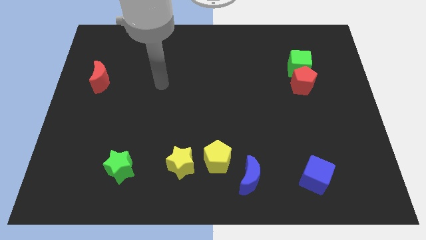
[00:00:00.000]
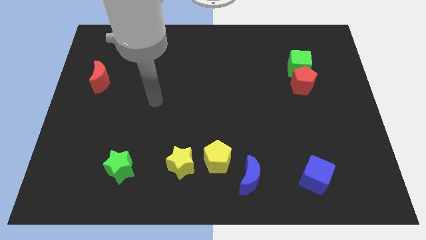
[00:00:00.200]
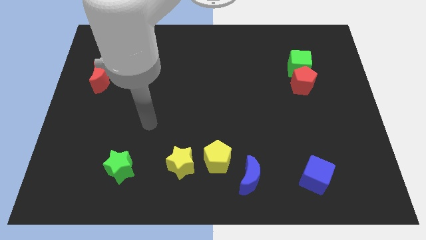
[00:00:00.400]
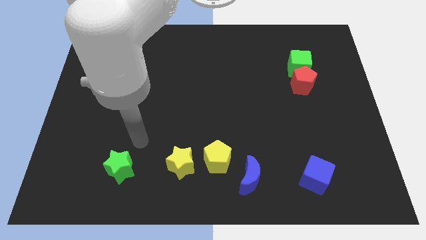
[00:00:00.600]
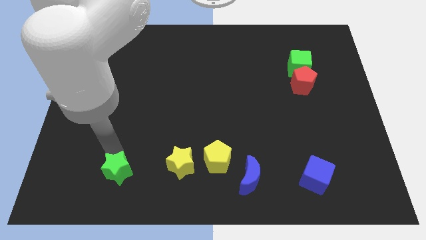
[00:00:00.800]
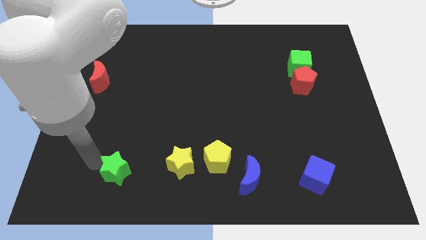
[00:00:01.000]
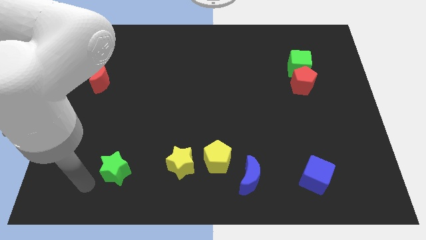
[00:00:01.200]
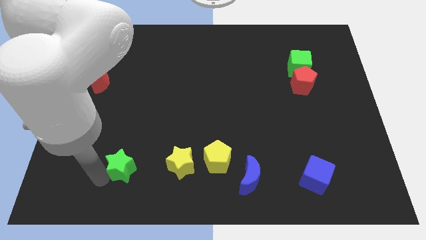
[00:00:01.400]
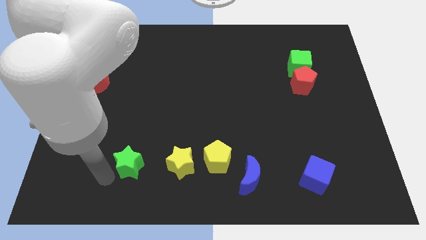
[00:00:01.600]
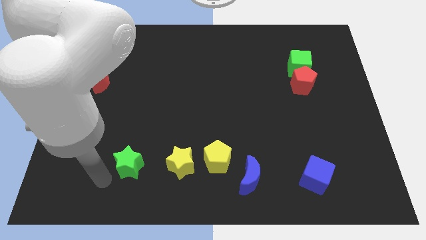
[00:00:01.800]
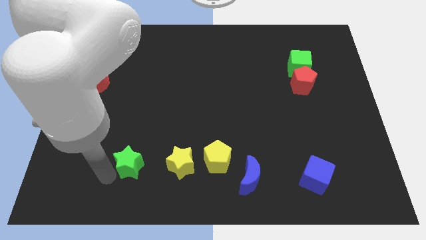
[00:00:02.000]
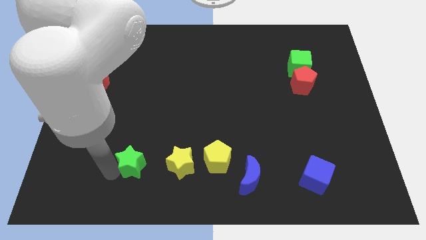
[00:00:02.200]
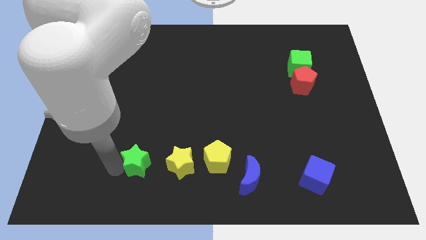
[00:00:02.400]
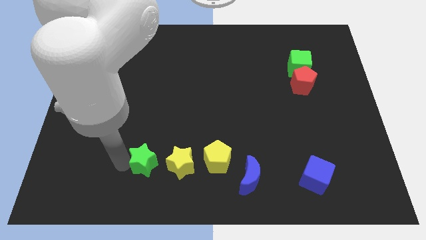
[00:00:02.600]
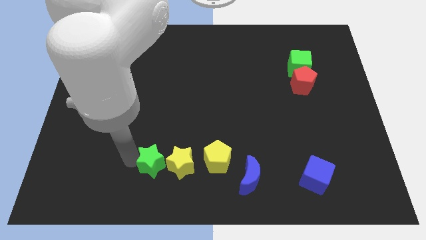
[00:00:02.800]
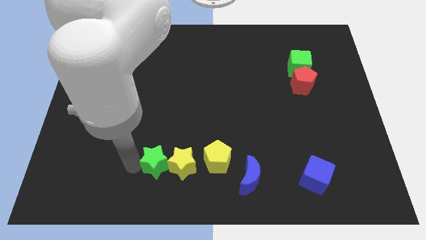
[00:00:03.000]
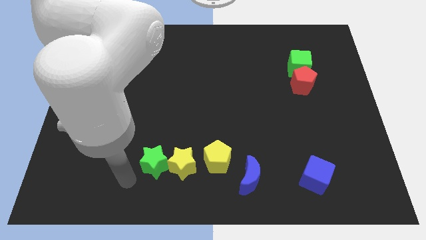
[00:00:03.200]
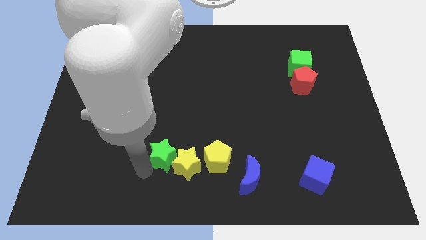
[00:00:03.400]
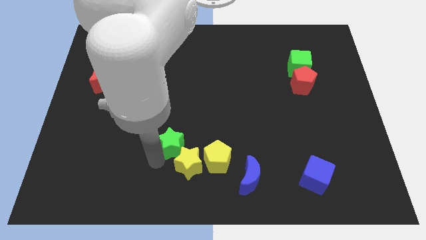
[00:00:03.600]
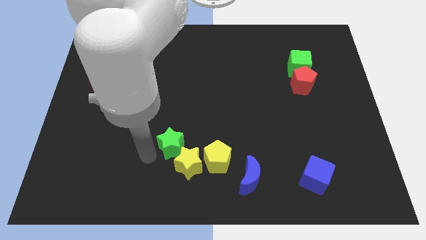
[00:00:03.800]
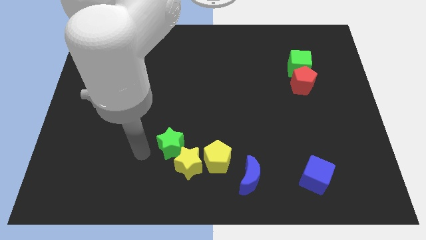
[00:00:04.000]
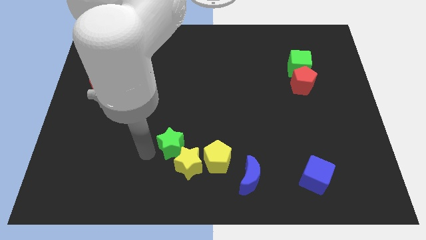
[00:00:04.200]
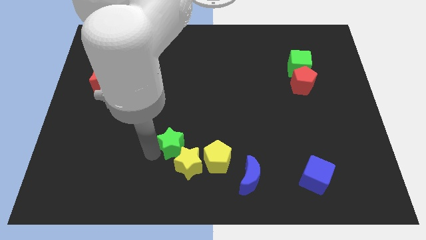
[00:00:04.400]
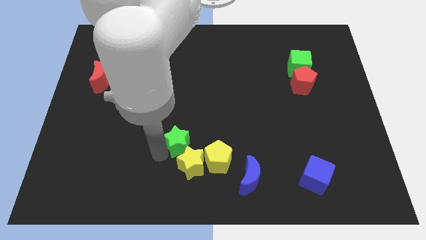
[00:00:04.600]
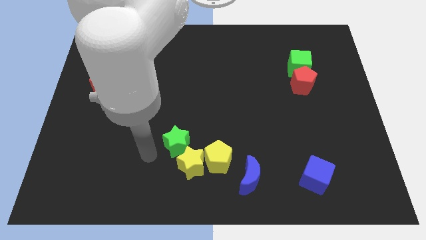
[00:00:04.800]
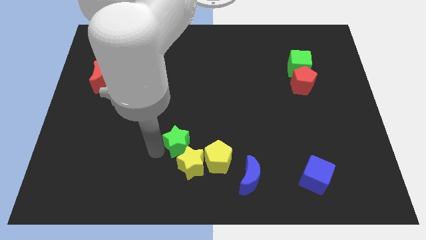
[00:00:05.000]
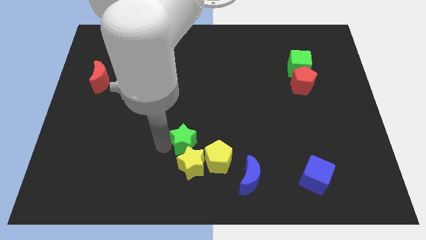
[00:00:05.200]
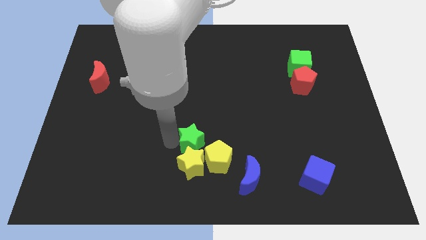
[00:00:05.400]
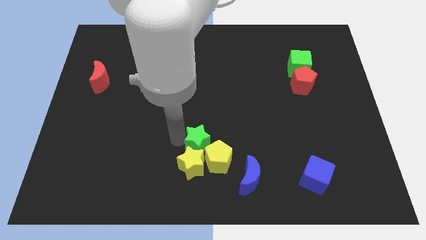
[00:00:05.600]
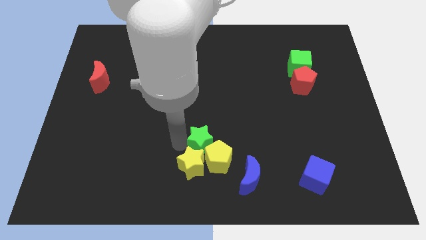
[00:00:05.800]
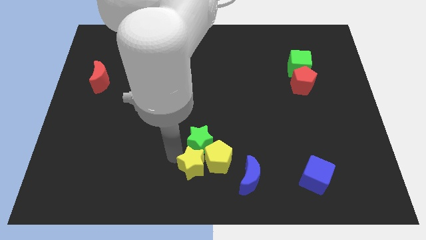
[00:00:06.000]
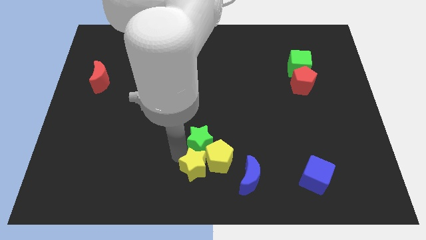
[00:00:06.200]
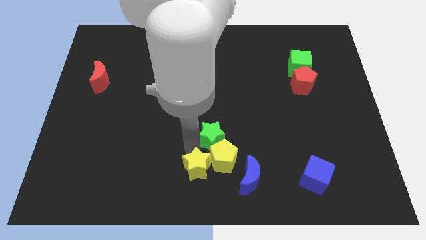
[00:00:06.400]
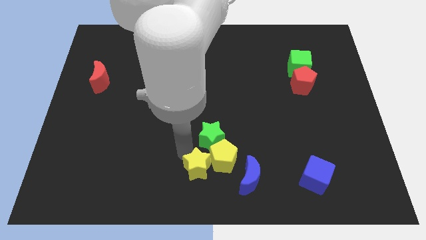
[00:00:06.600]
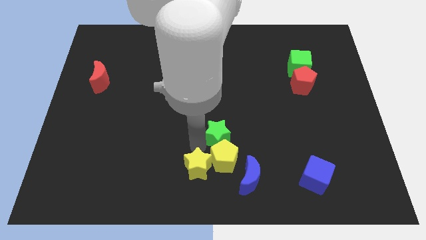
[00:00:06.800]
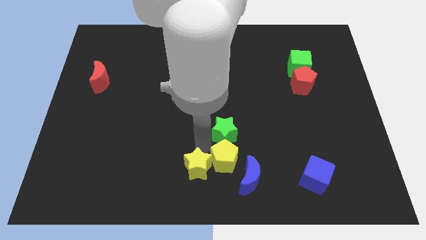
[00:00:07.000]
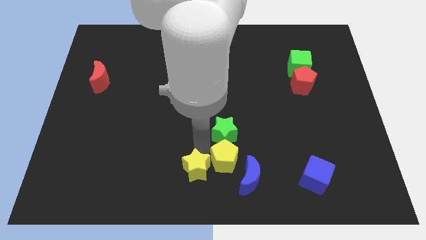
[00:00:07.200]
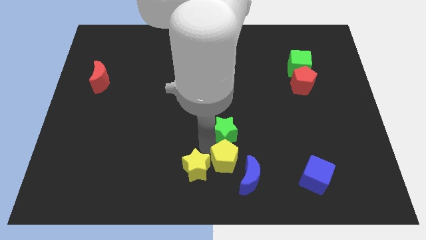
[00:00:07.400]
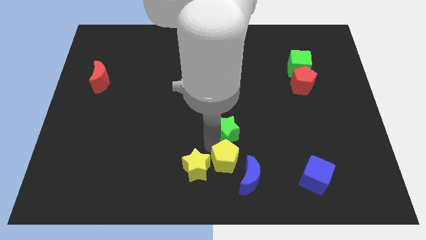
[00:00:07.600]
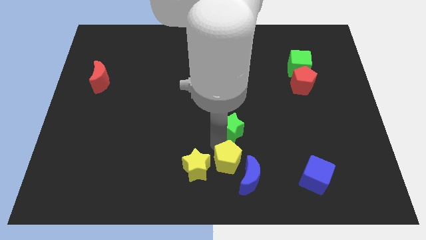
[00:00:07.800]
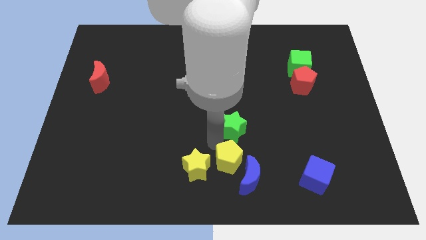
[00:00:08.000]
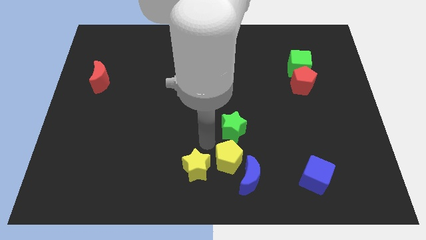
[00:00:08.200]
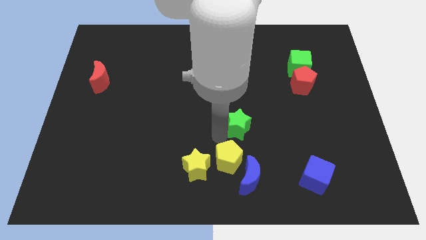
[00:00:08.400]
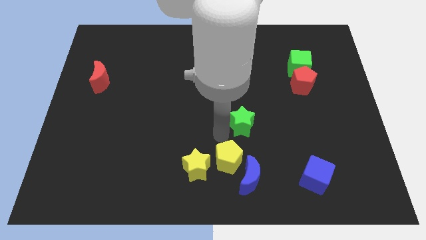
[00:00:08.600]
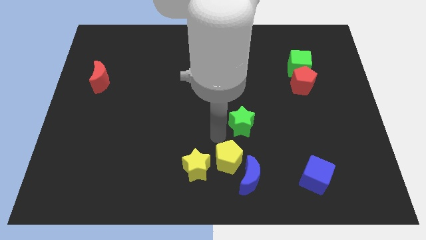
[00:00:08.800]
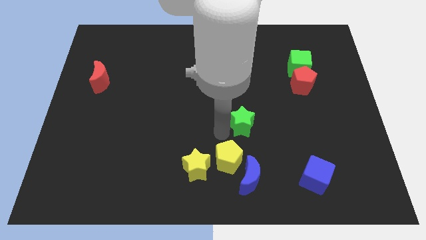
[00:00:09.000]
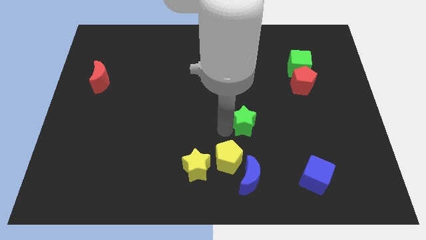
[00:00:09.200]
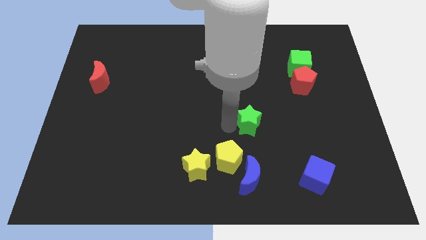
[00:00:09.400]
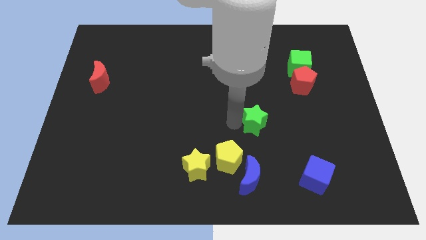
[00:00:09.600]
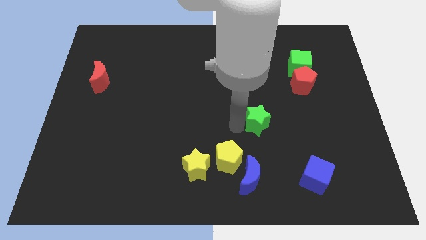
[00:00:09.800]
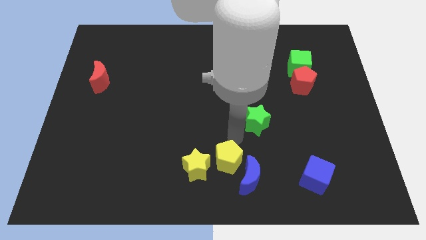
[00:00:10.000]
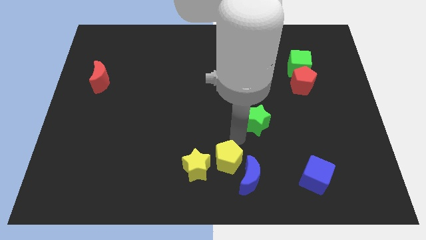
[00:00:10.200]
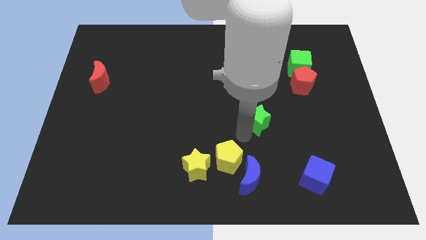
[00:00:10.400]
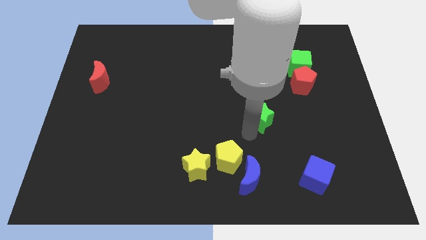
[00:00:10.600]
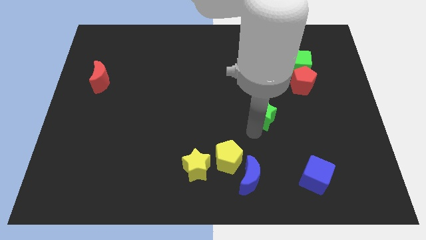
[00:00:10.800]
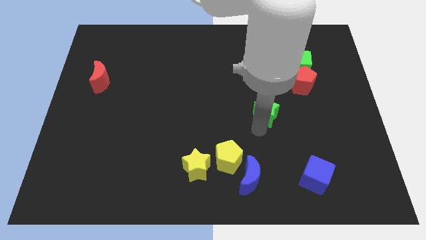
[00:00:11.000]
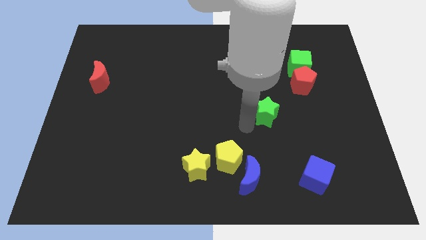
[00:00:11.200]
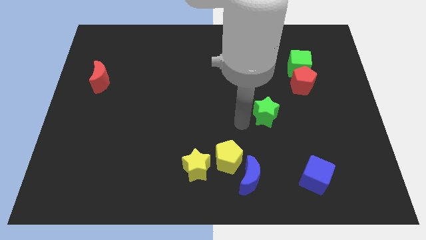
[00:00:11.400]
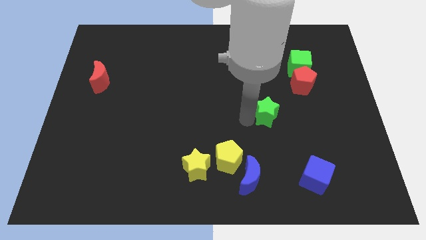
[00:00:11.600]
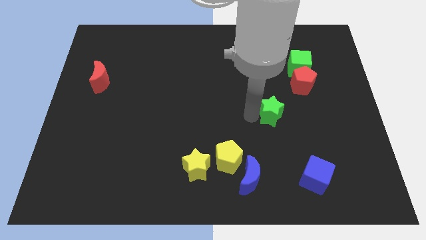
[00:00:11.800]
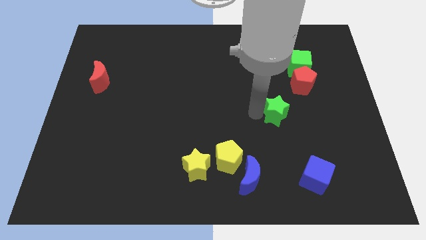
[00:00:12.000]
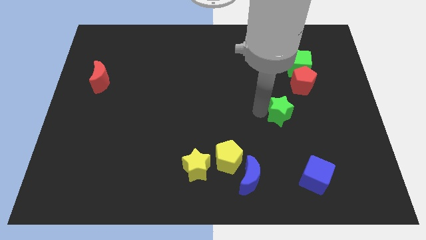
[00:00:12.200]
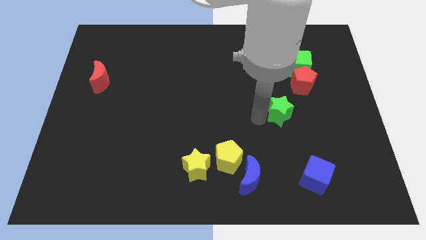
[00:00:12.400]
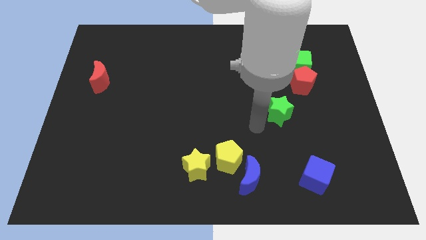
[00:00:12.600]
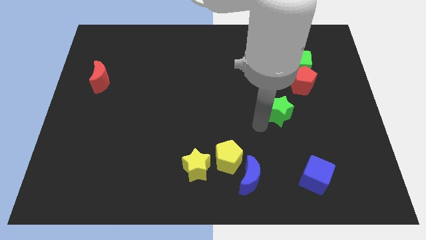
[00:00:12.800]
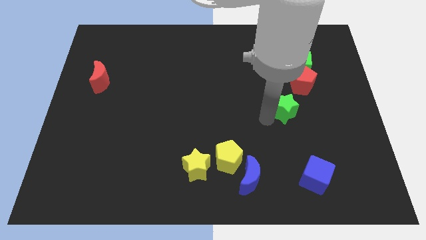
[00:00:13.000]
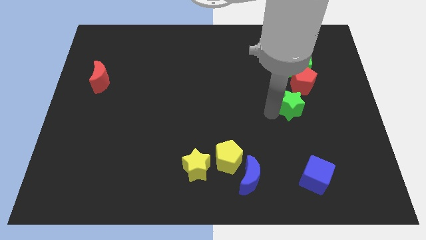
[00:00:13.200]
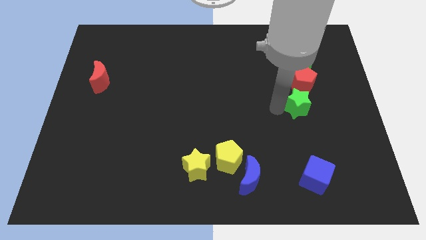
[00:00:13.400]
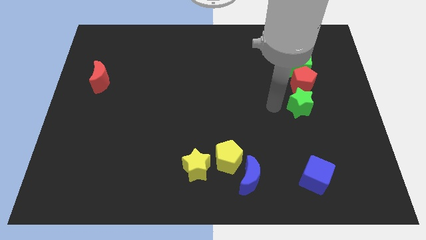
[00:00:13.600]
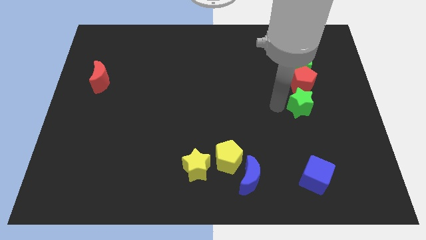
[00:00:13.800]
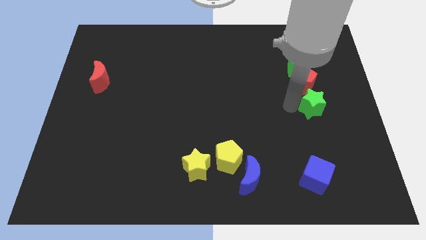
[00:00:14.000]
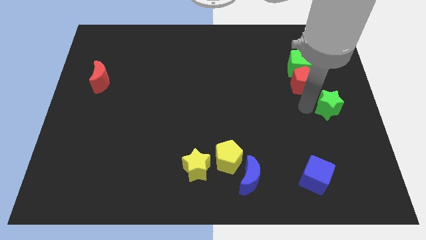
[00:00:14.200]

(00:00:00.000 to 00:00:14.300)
put the green star to the right side
